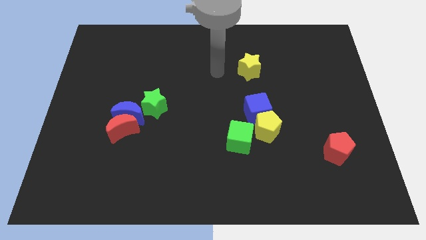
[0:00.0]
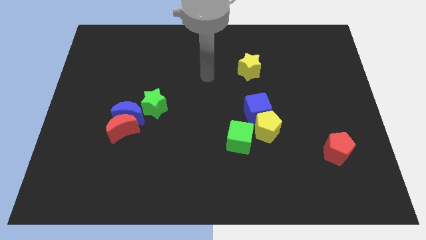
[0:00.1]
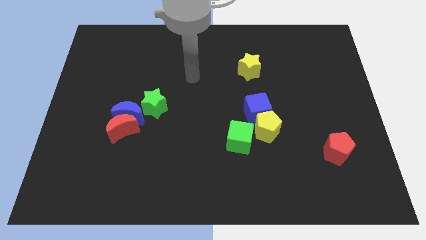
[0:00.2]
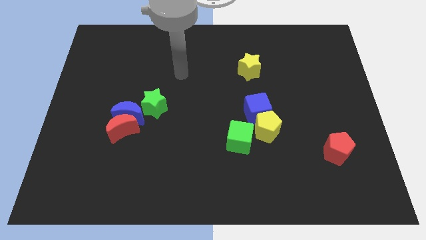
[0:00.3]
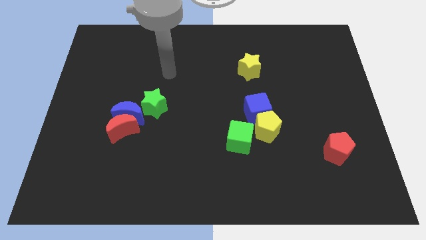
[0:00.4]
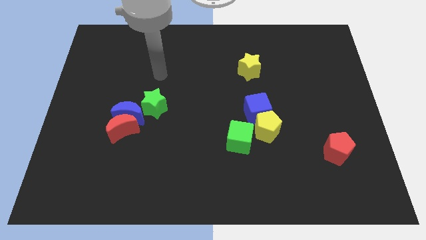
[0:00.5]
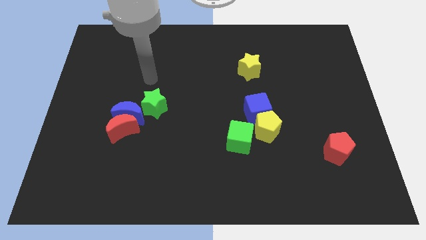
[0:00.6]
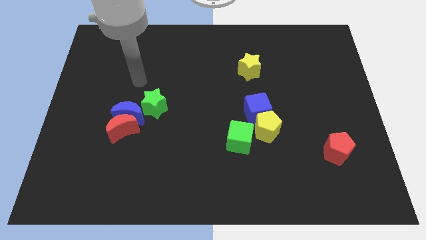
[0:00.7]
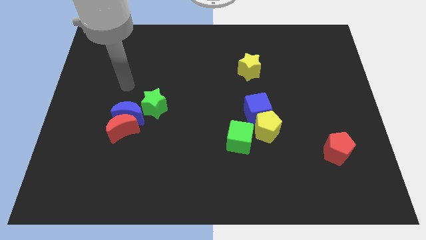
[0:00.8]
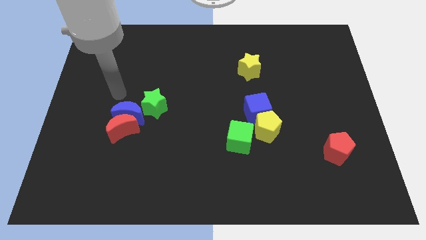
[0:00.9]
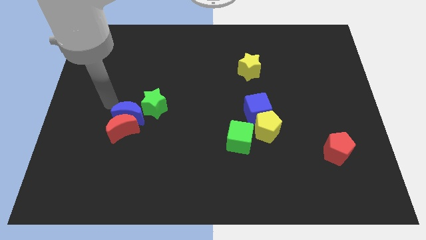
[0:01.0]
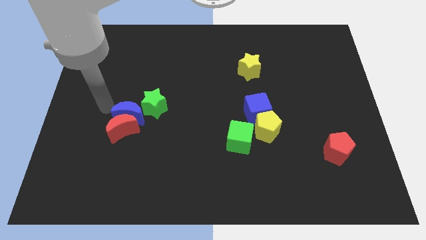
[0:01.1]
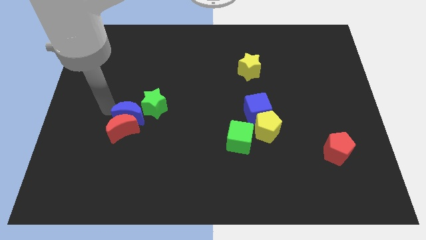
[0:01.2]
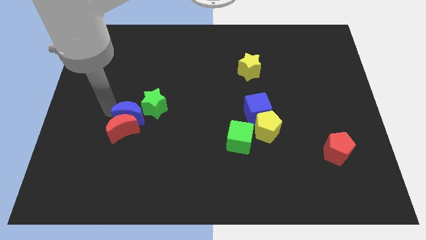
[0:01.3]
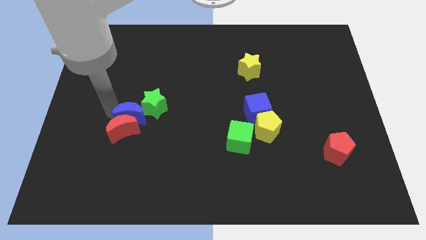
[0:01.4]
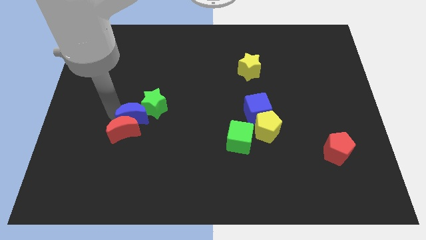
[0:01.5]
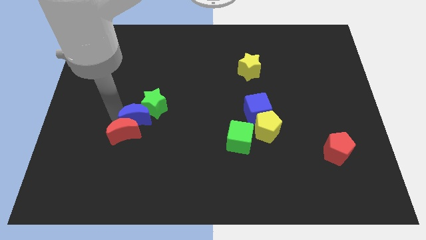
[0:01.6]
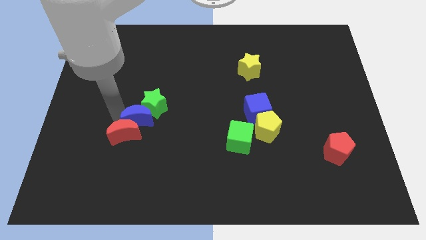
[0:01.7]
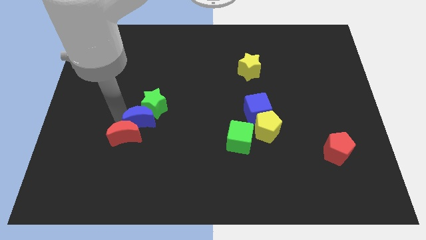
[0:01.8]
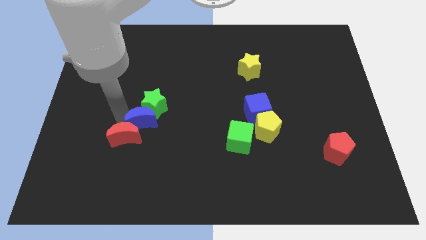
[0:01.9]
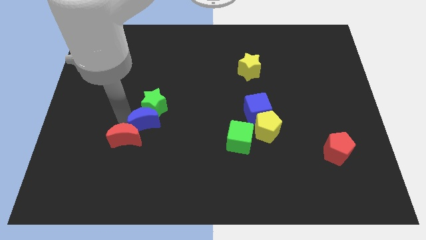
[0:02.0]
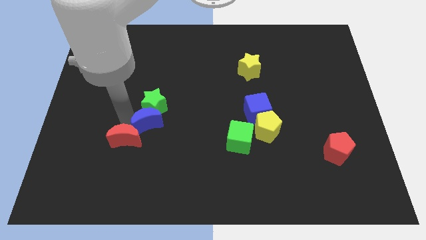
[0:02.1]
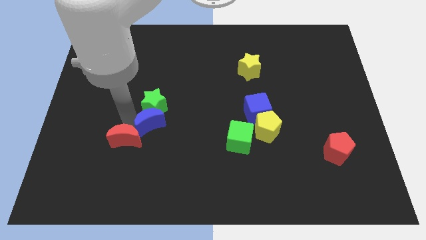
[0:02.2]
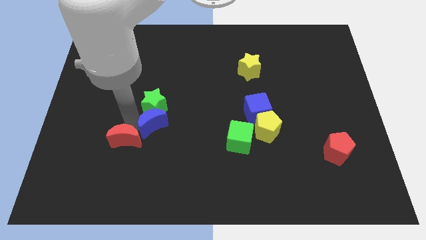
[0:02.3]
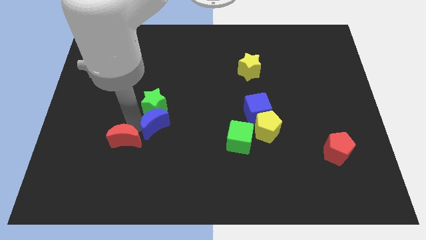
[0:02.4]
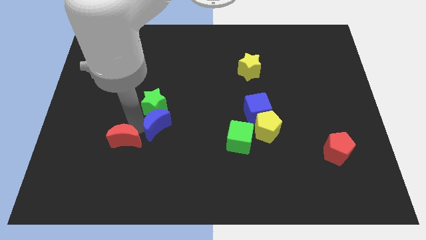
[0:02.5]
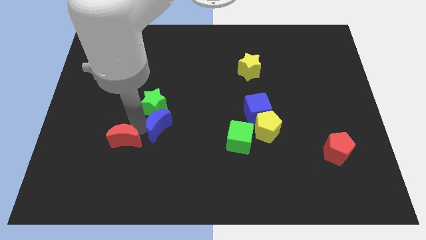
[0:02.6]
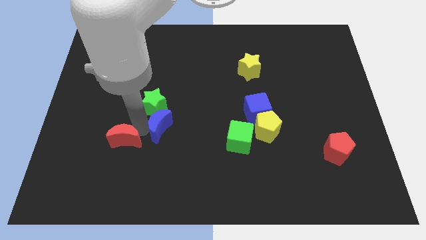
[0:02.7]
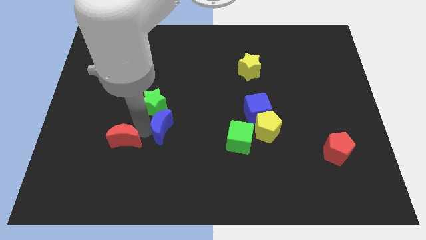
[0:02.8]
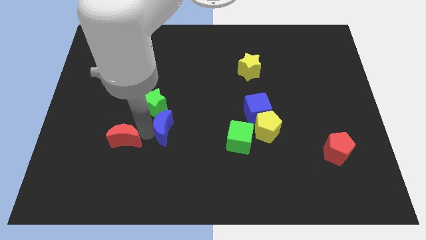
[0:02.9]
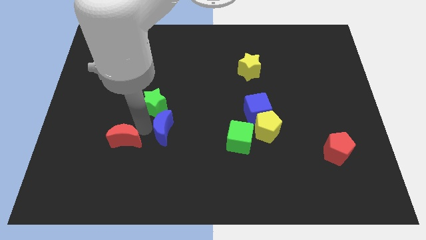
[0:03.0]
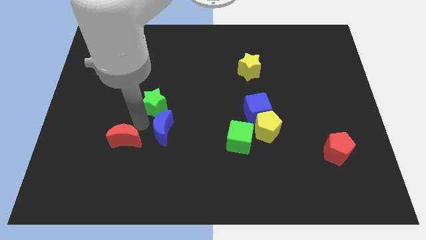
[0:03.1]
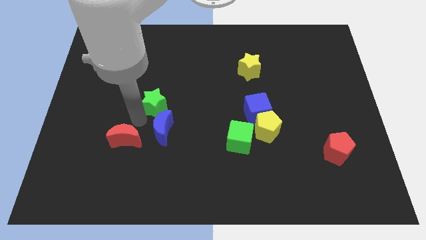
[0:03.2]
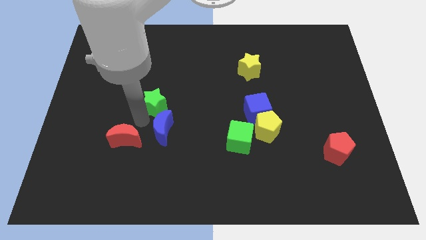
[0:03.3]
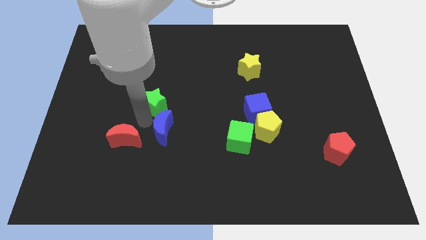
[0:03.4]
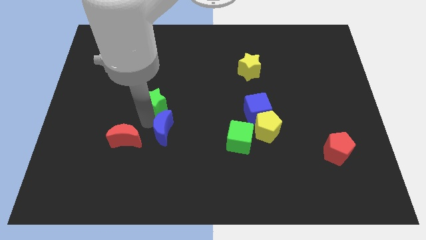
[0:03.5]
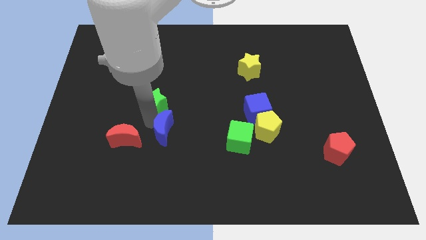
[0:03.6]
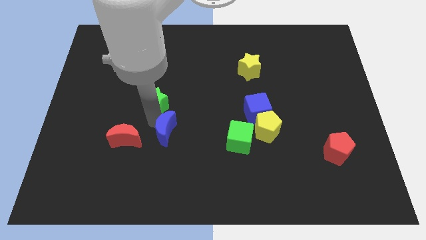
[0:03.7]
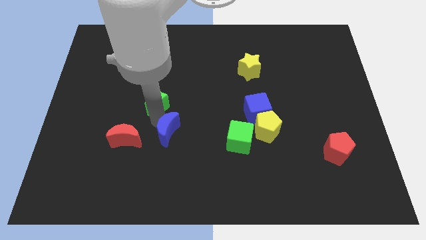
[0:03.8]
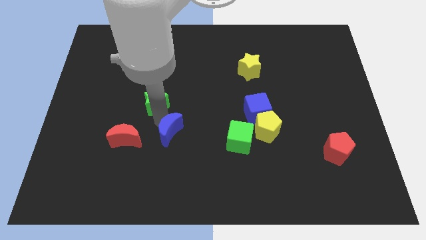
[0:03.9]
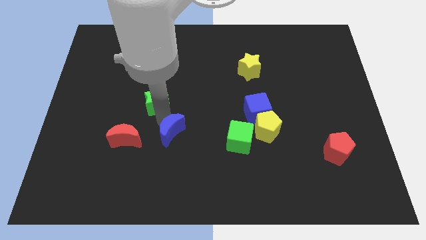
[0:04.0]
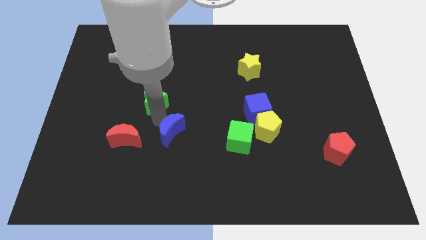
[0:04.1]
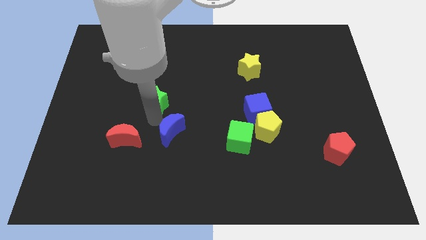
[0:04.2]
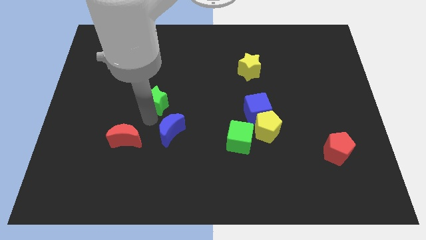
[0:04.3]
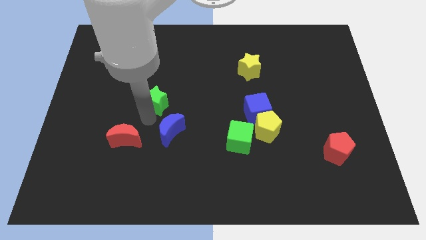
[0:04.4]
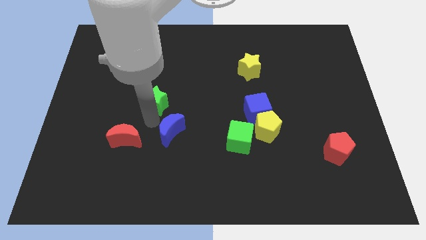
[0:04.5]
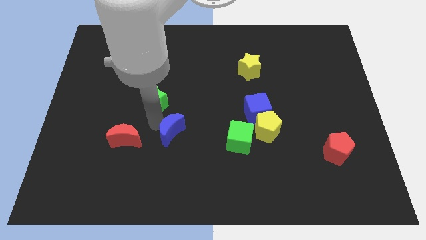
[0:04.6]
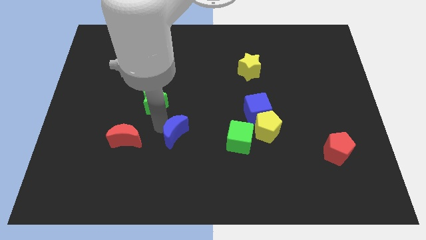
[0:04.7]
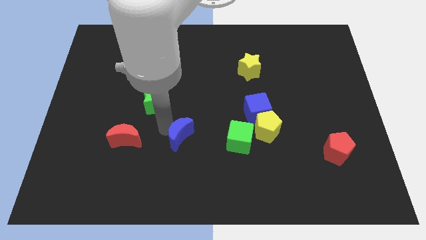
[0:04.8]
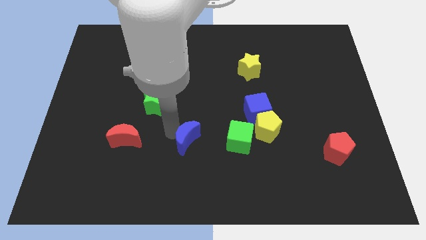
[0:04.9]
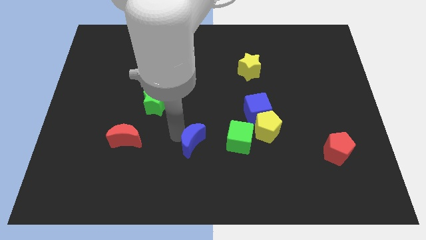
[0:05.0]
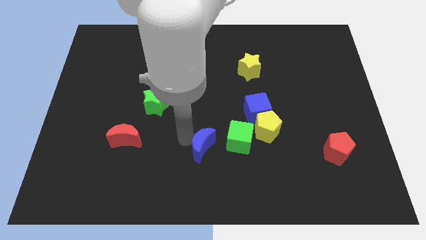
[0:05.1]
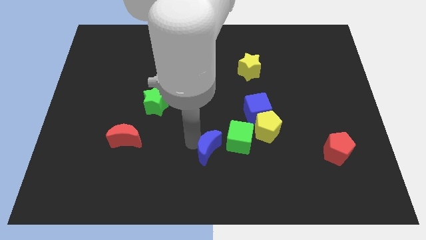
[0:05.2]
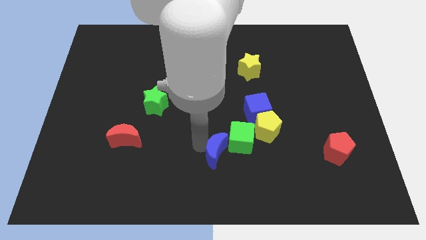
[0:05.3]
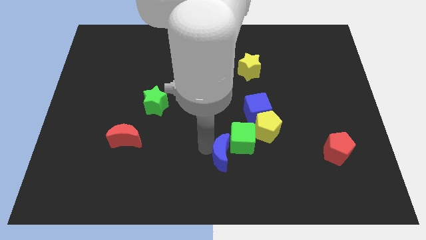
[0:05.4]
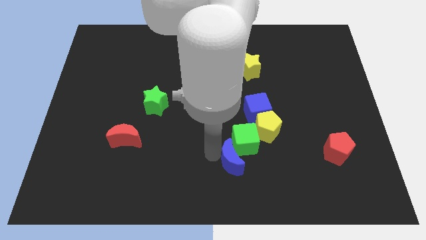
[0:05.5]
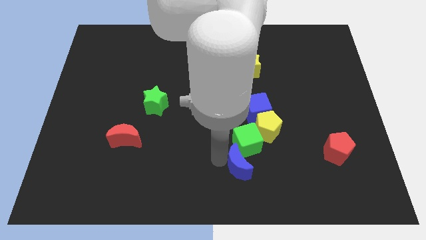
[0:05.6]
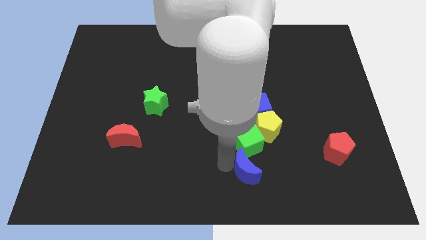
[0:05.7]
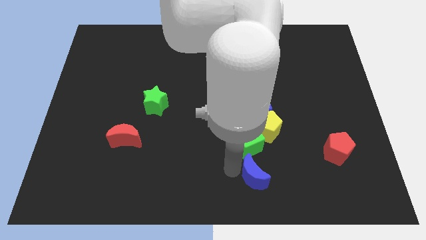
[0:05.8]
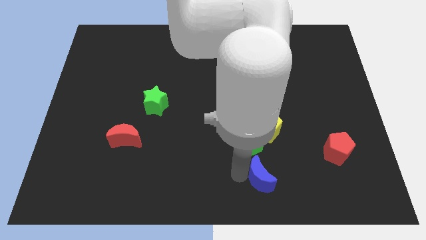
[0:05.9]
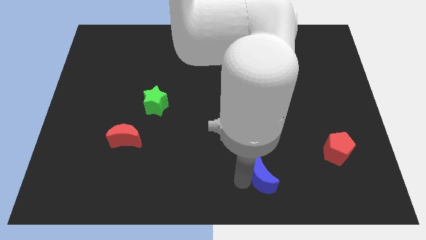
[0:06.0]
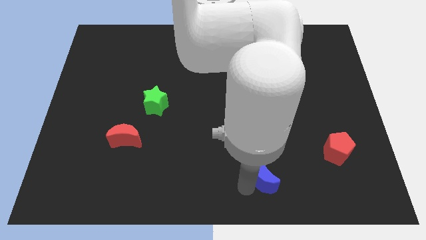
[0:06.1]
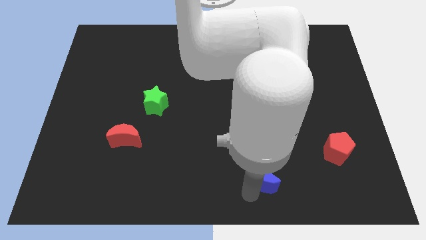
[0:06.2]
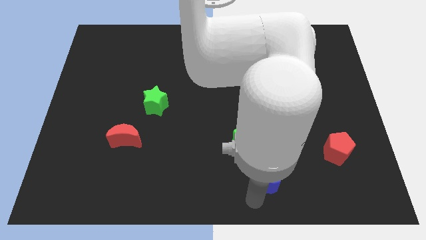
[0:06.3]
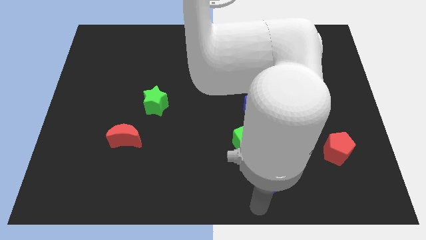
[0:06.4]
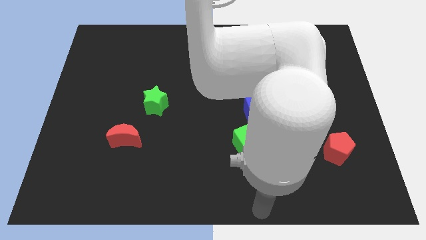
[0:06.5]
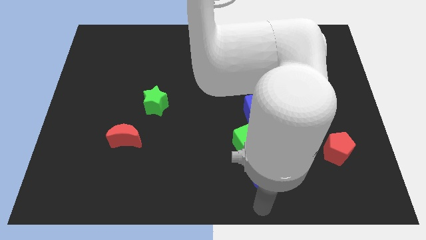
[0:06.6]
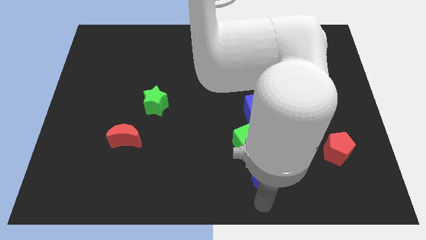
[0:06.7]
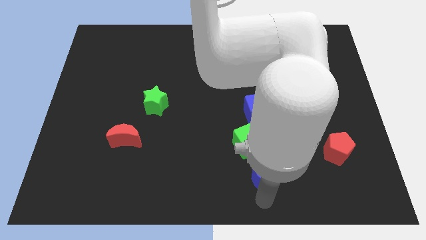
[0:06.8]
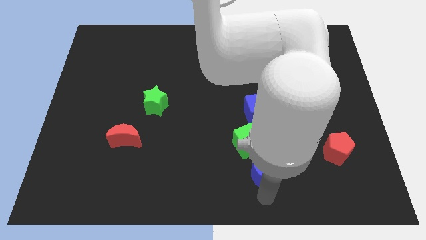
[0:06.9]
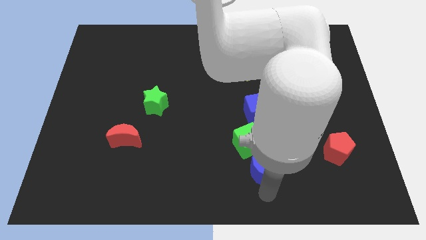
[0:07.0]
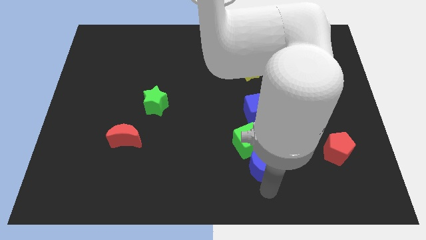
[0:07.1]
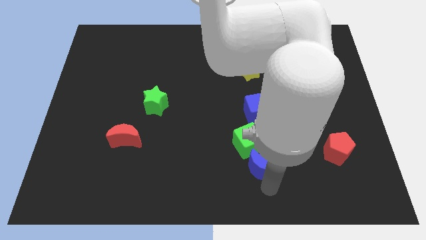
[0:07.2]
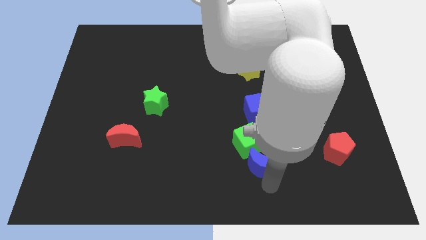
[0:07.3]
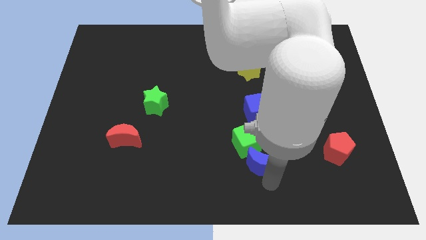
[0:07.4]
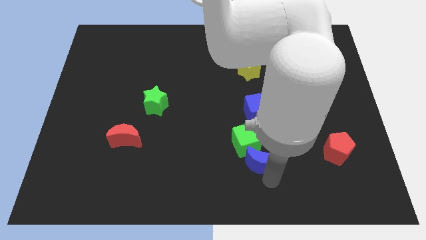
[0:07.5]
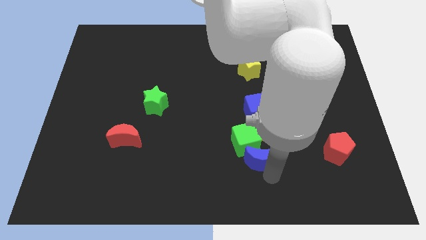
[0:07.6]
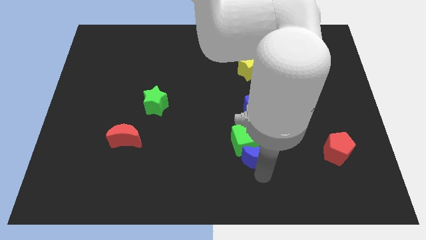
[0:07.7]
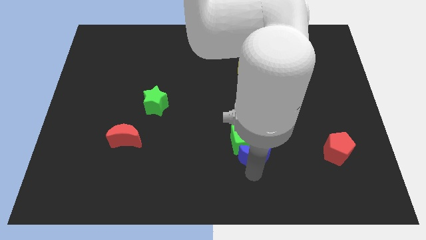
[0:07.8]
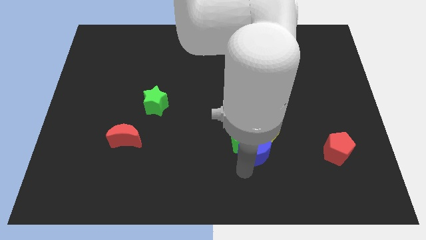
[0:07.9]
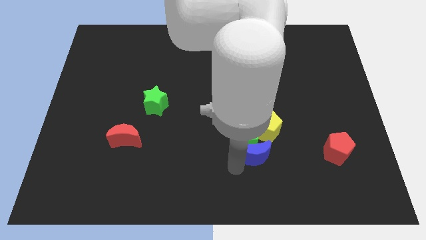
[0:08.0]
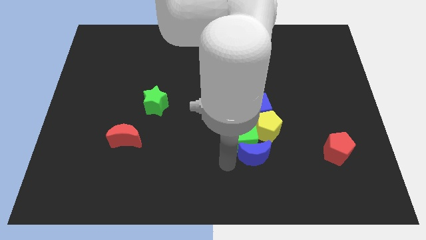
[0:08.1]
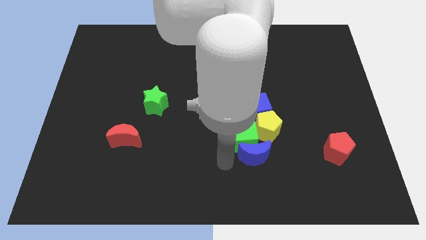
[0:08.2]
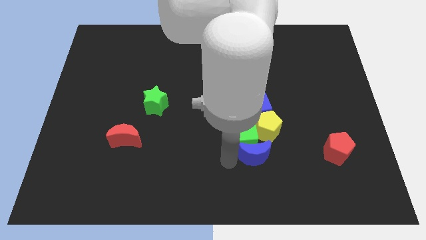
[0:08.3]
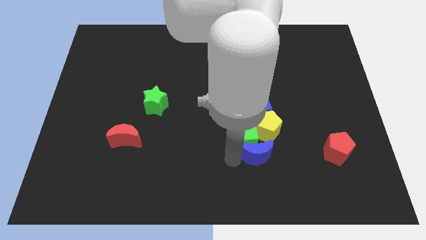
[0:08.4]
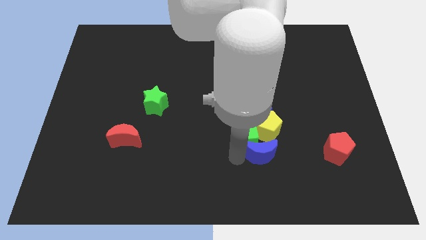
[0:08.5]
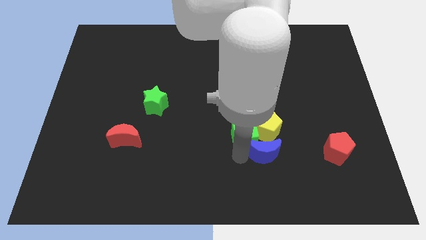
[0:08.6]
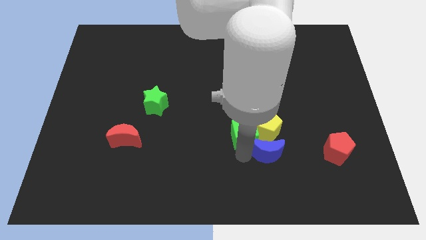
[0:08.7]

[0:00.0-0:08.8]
push the blue moon diagonally down and to the right of the yellow pentagon
